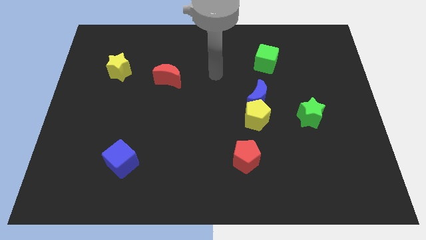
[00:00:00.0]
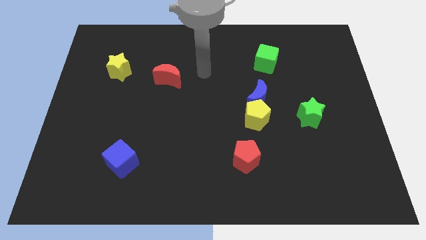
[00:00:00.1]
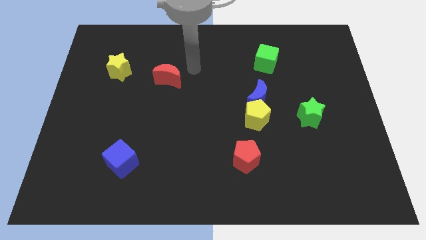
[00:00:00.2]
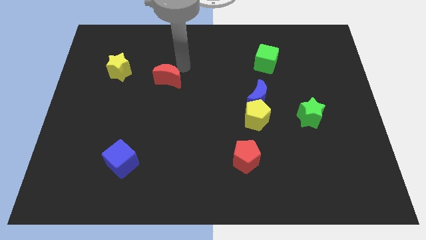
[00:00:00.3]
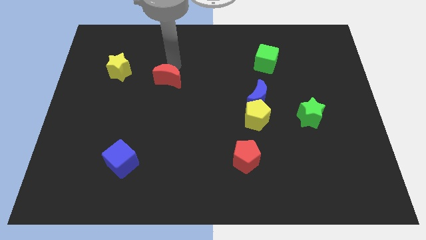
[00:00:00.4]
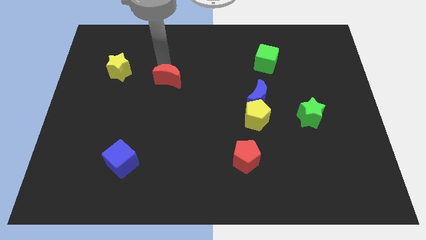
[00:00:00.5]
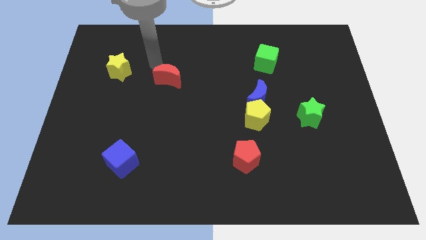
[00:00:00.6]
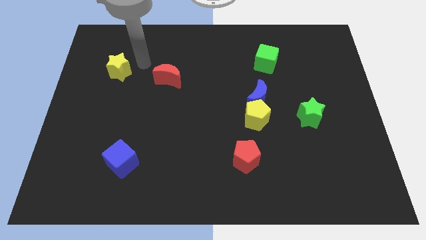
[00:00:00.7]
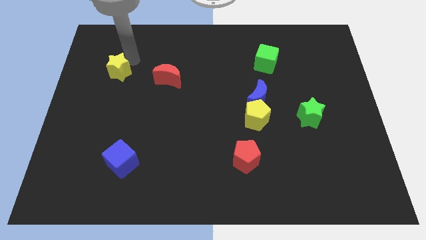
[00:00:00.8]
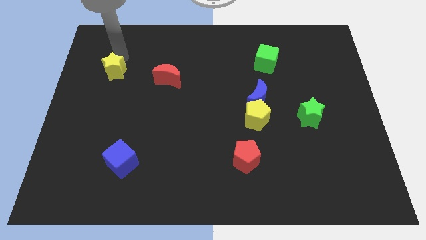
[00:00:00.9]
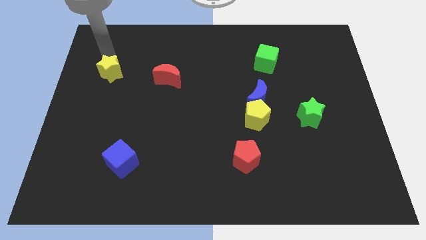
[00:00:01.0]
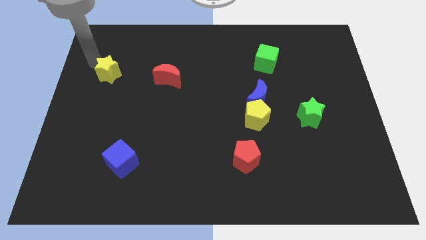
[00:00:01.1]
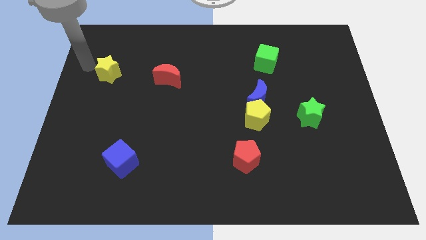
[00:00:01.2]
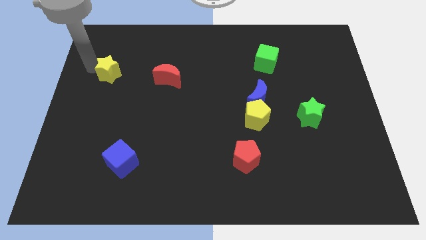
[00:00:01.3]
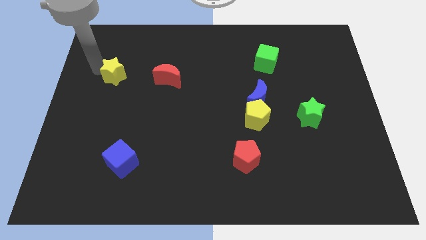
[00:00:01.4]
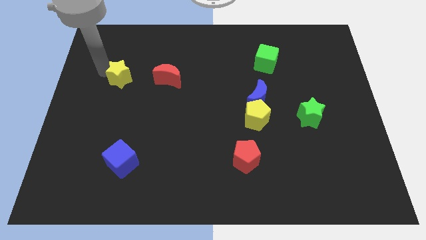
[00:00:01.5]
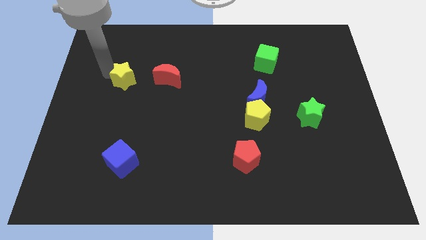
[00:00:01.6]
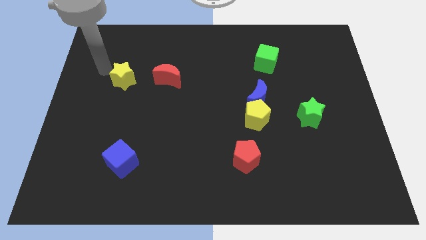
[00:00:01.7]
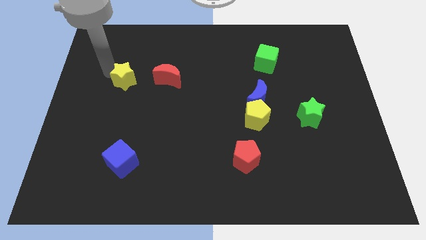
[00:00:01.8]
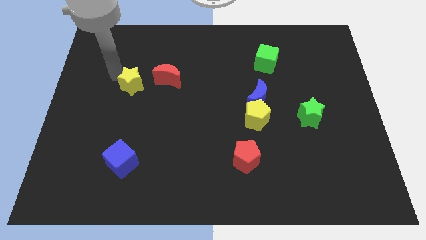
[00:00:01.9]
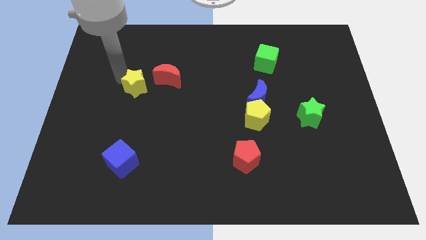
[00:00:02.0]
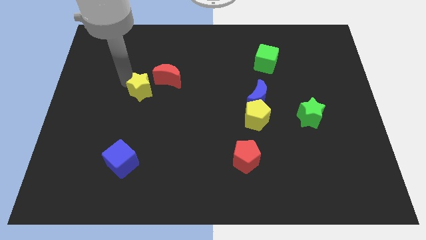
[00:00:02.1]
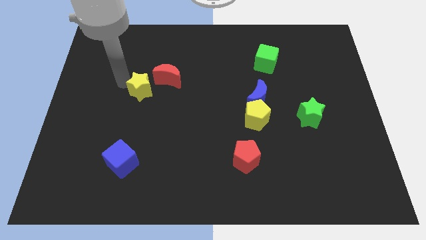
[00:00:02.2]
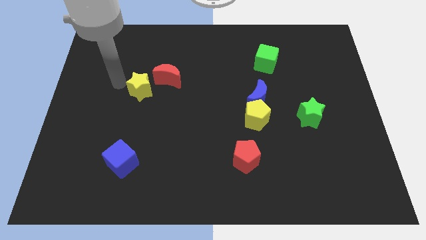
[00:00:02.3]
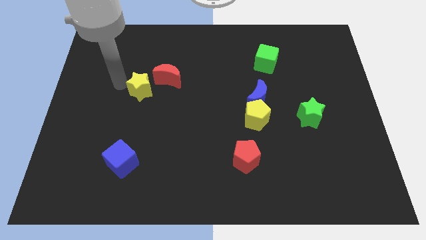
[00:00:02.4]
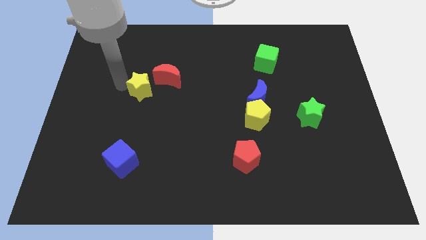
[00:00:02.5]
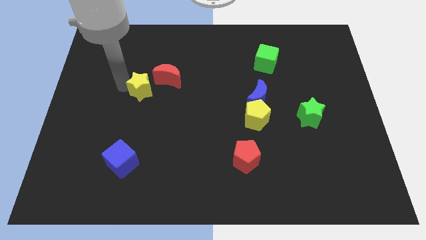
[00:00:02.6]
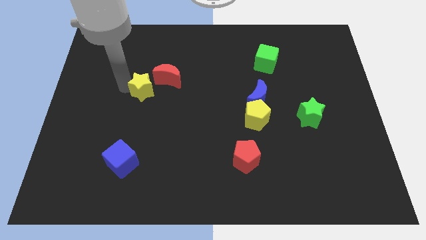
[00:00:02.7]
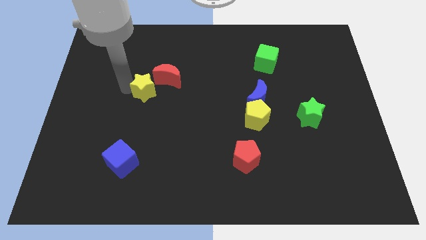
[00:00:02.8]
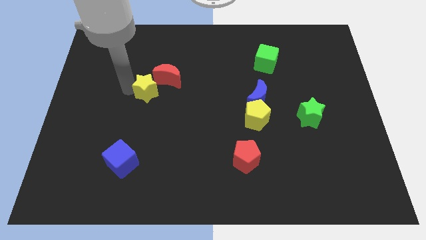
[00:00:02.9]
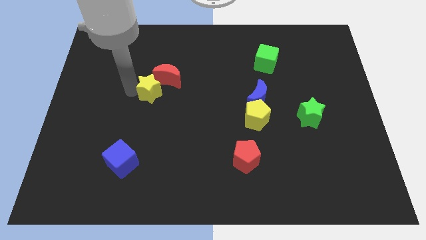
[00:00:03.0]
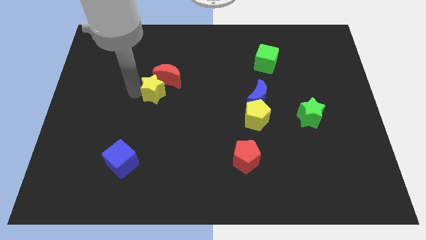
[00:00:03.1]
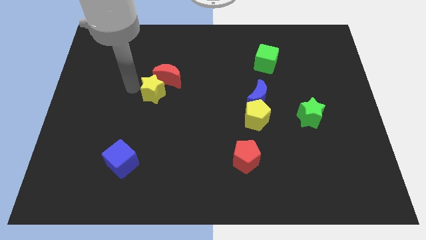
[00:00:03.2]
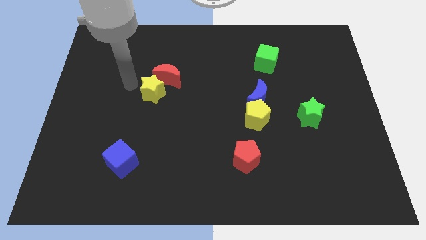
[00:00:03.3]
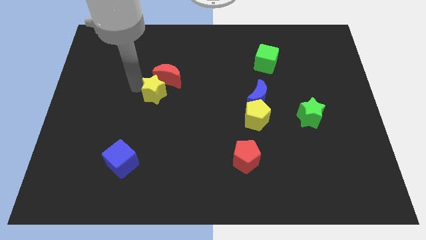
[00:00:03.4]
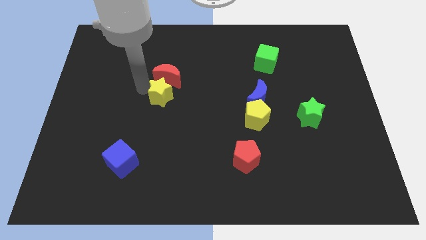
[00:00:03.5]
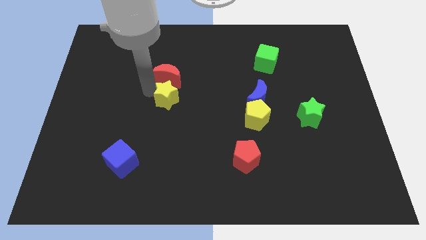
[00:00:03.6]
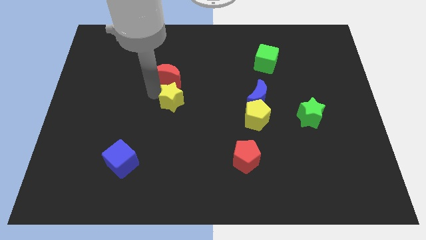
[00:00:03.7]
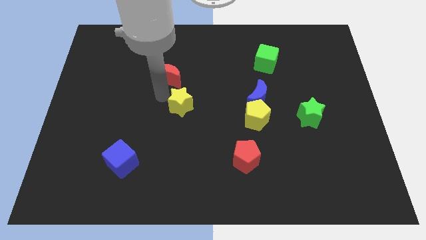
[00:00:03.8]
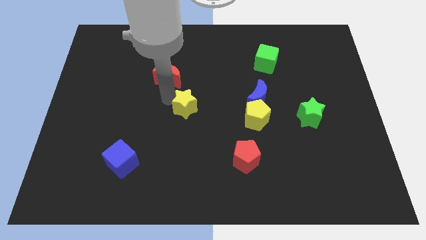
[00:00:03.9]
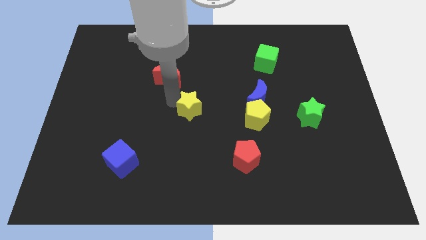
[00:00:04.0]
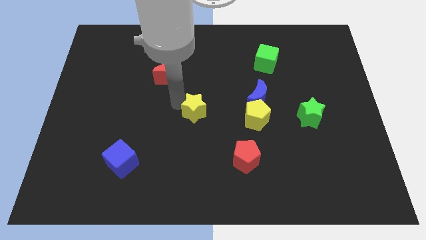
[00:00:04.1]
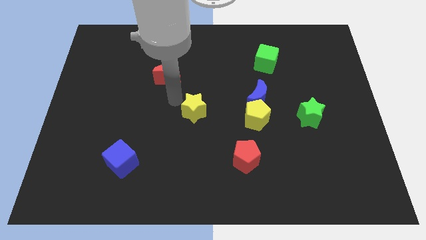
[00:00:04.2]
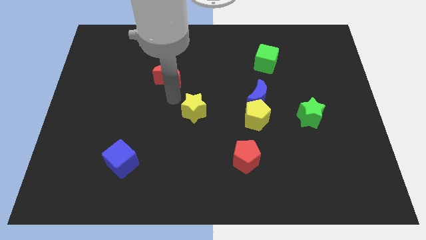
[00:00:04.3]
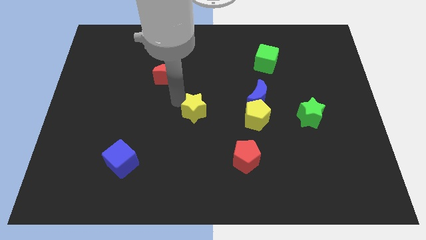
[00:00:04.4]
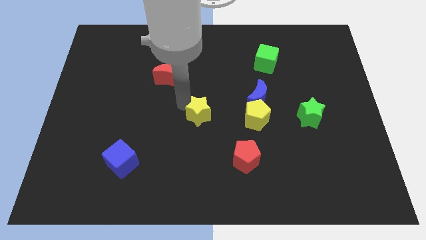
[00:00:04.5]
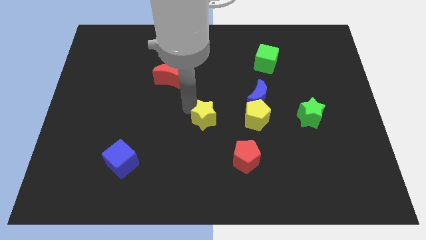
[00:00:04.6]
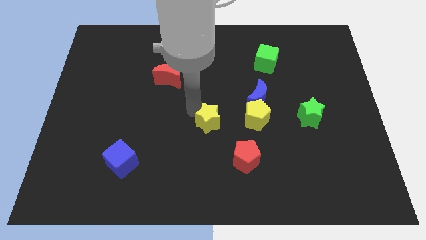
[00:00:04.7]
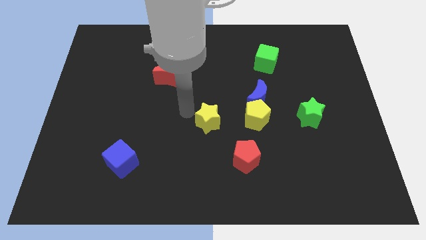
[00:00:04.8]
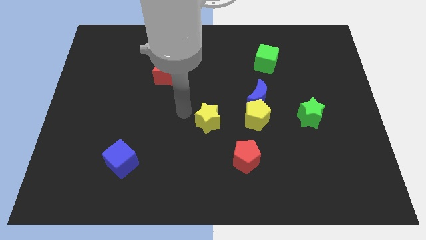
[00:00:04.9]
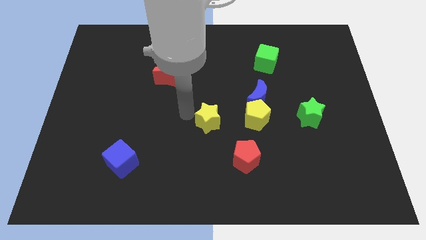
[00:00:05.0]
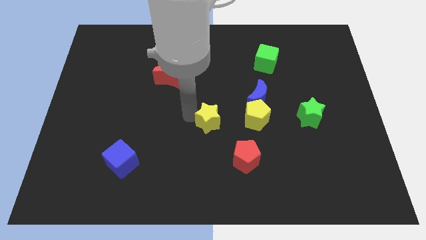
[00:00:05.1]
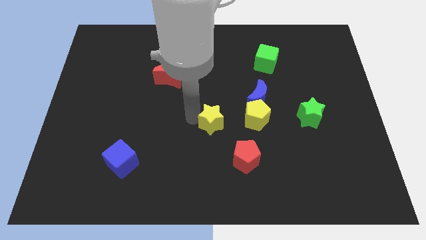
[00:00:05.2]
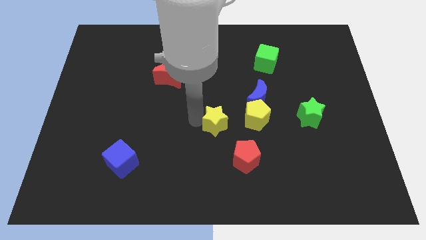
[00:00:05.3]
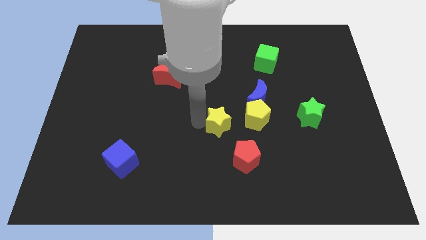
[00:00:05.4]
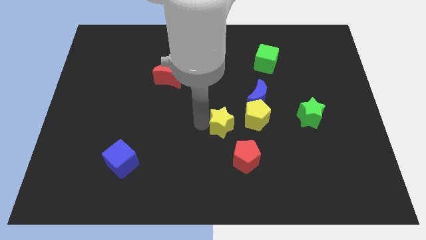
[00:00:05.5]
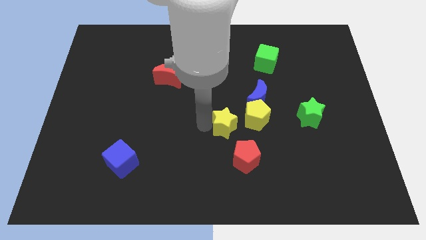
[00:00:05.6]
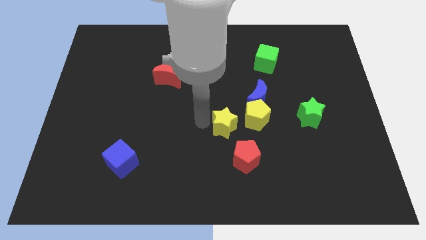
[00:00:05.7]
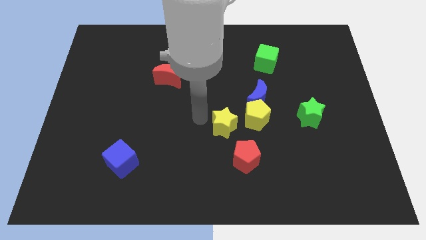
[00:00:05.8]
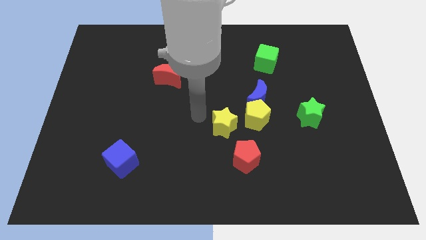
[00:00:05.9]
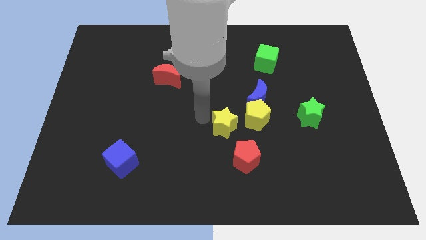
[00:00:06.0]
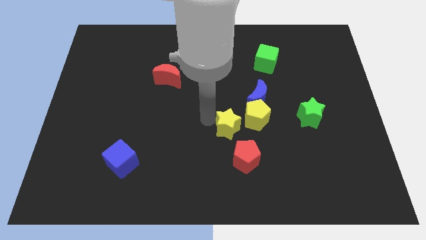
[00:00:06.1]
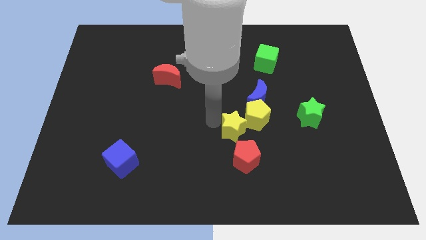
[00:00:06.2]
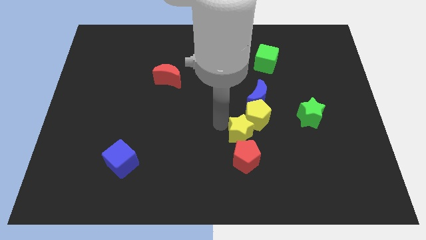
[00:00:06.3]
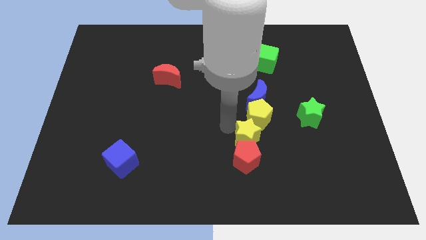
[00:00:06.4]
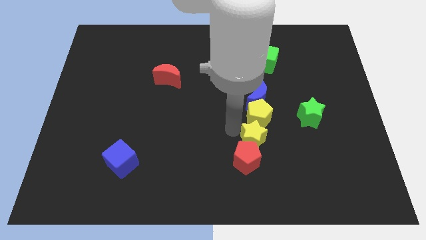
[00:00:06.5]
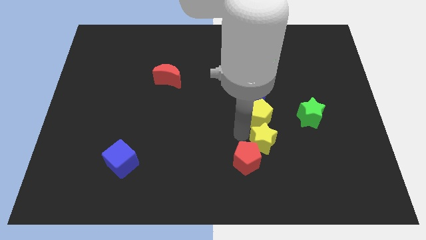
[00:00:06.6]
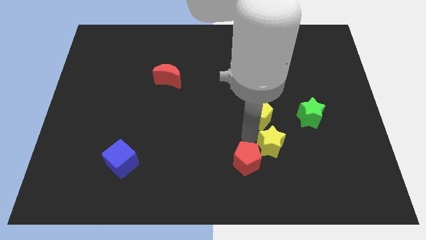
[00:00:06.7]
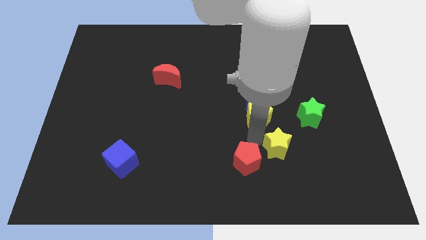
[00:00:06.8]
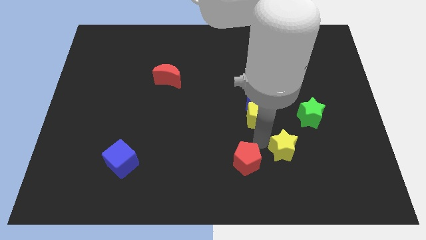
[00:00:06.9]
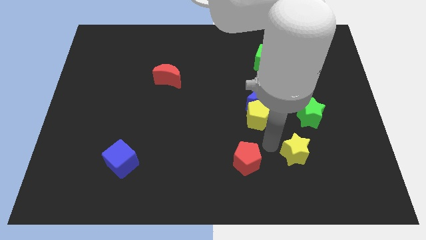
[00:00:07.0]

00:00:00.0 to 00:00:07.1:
put the yellow star below the green star
